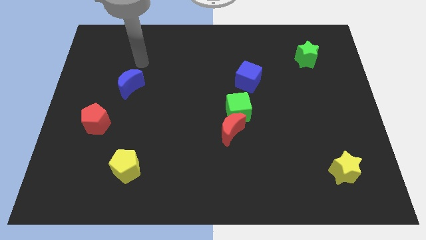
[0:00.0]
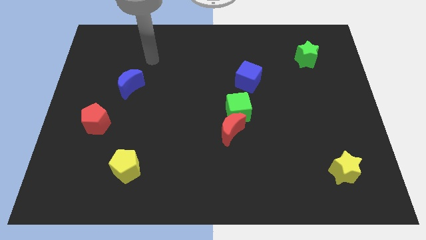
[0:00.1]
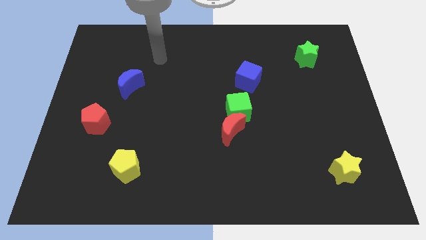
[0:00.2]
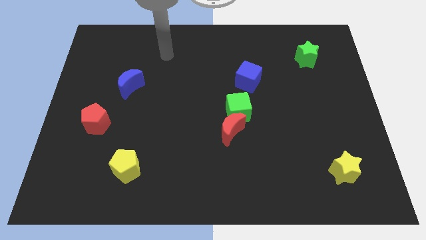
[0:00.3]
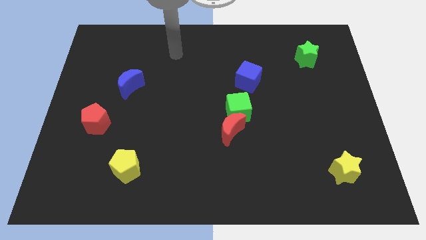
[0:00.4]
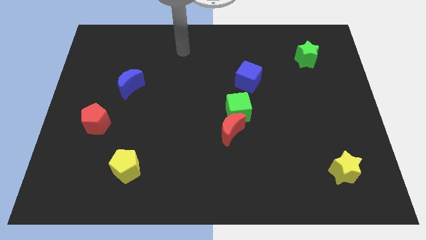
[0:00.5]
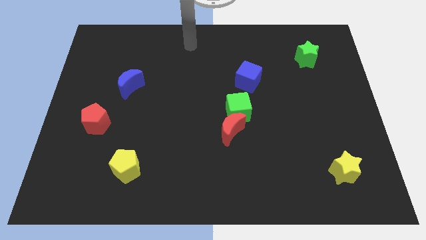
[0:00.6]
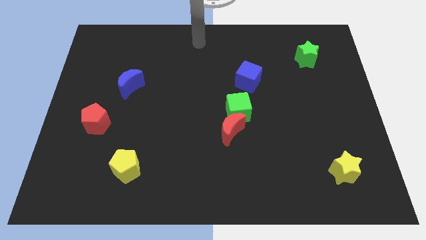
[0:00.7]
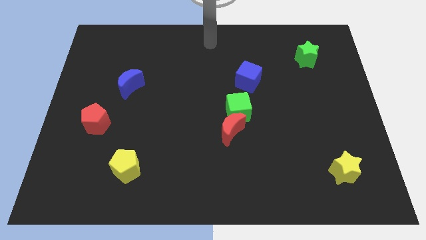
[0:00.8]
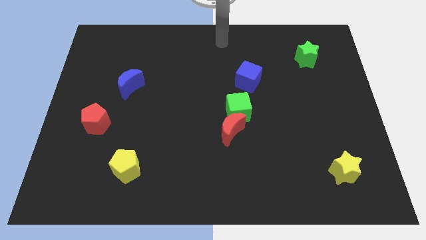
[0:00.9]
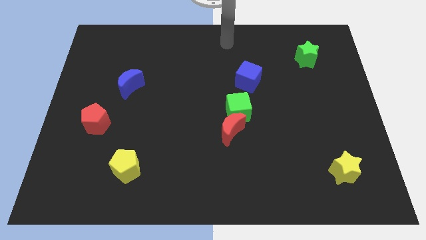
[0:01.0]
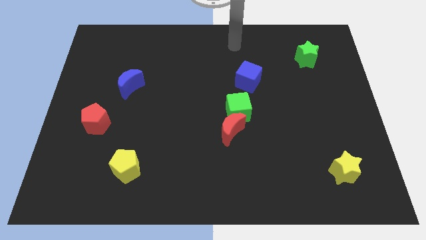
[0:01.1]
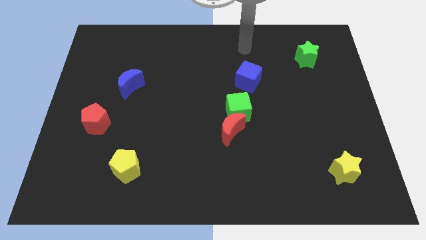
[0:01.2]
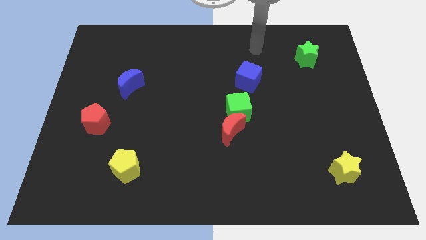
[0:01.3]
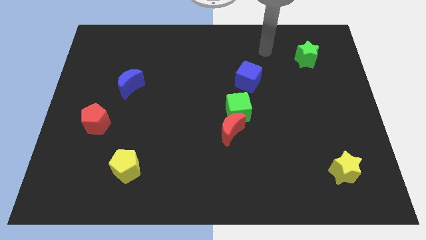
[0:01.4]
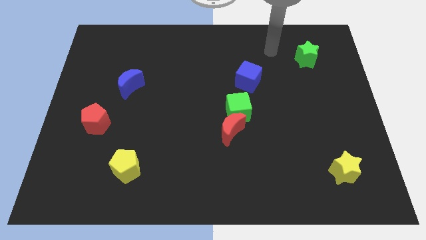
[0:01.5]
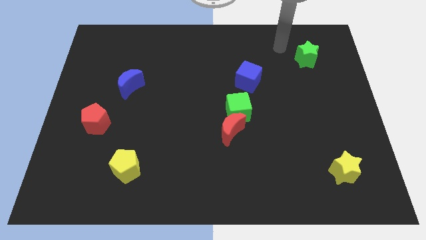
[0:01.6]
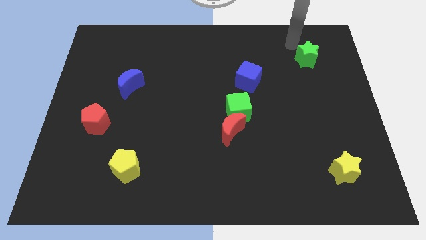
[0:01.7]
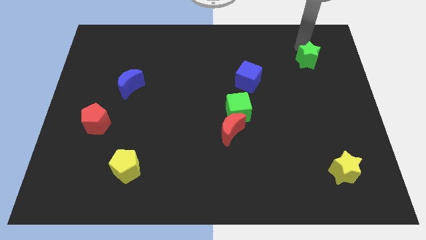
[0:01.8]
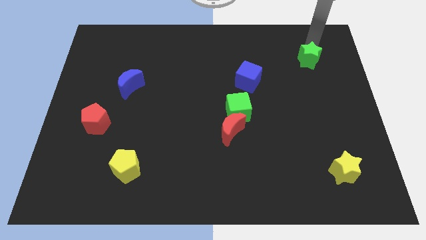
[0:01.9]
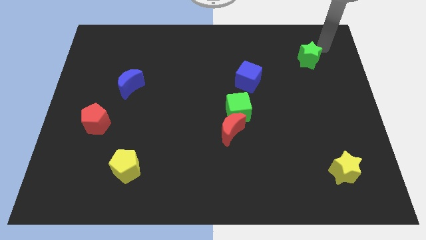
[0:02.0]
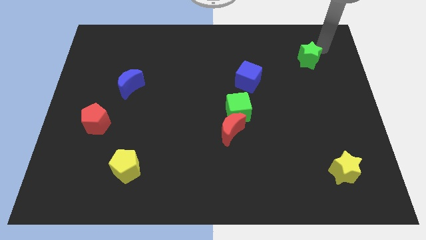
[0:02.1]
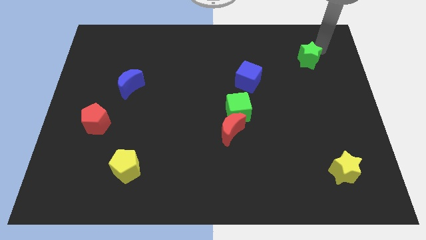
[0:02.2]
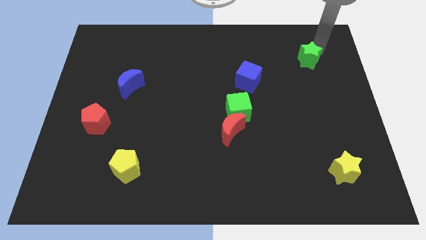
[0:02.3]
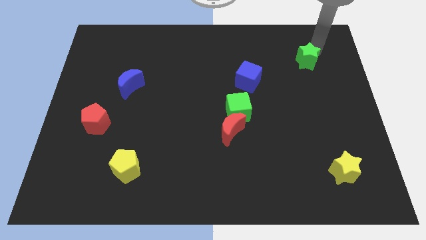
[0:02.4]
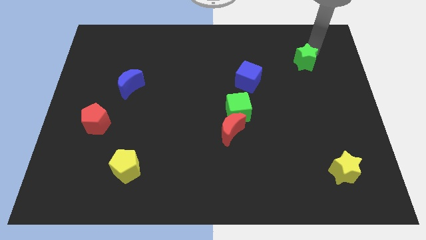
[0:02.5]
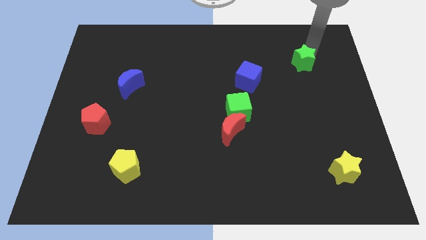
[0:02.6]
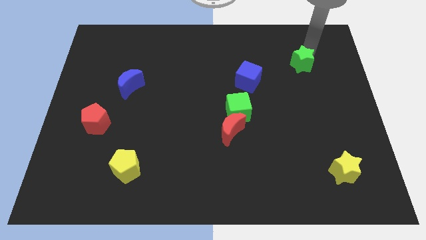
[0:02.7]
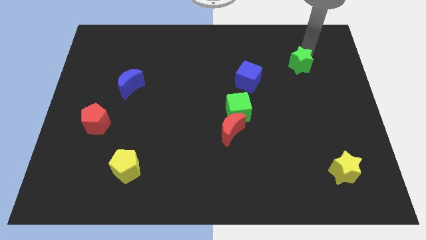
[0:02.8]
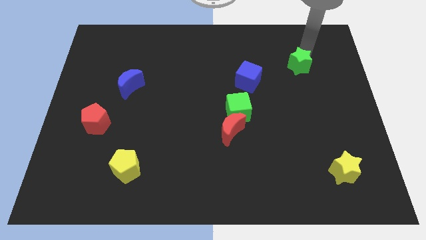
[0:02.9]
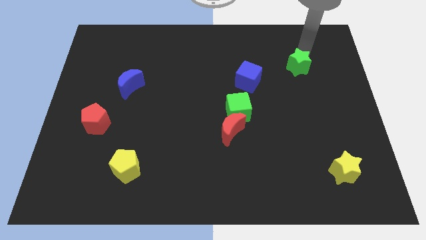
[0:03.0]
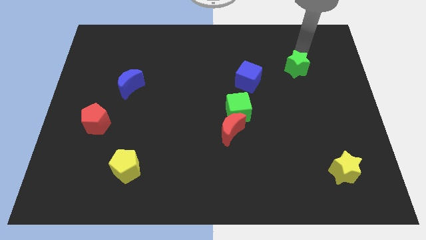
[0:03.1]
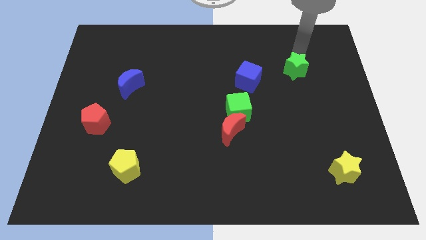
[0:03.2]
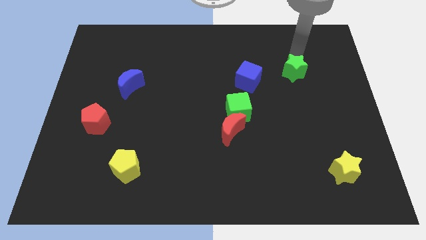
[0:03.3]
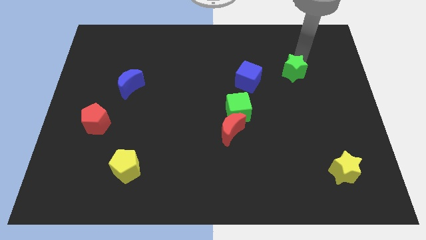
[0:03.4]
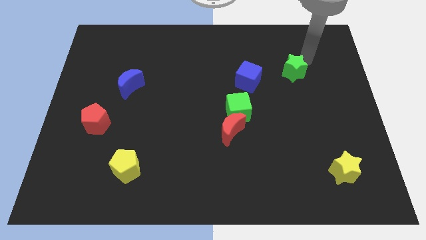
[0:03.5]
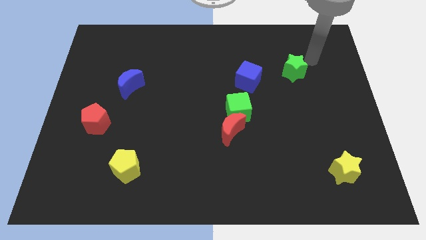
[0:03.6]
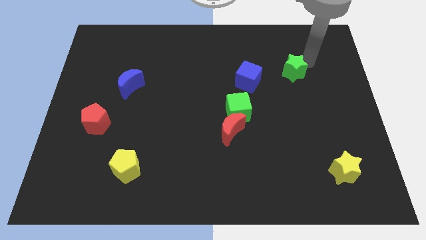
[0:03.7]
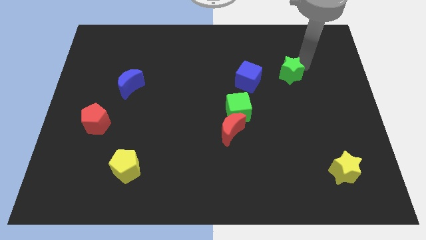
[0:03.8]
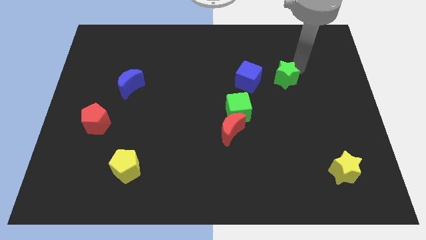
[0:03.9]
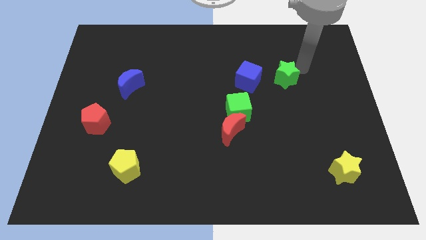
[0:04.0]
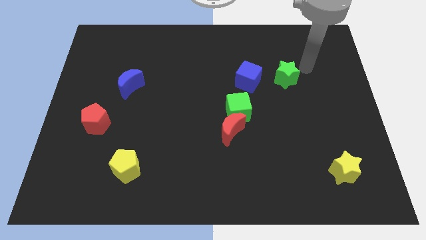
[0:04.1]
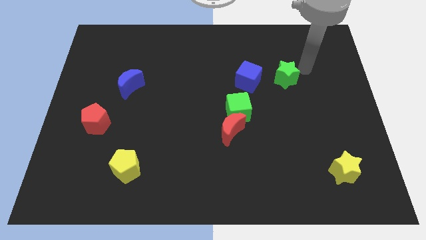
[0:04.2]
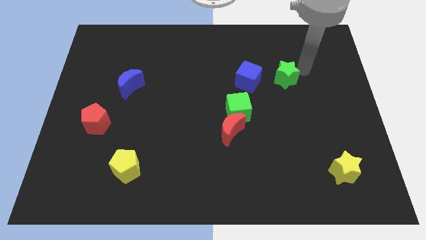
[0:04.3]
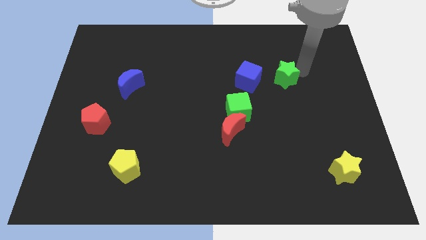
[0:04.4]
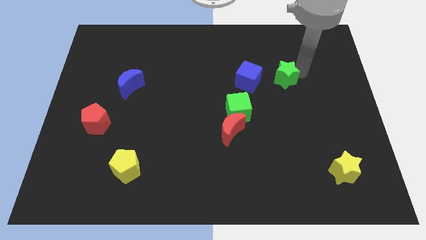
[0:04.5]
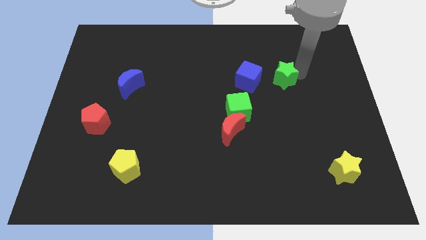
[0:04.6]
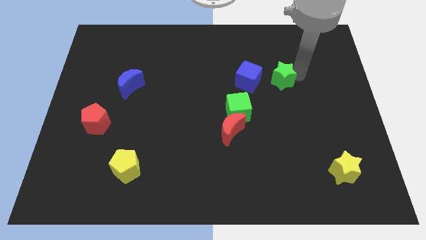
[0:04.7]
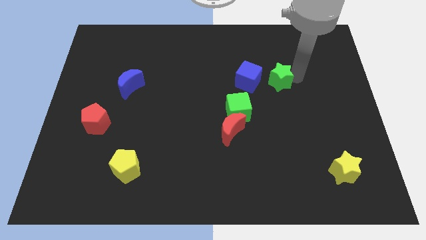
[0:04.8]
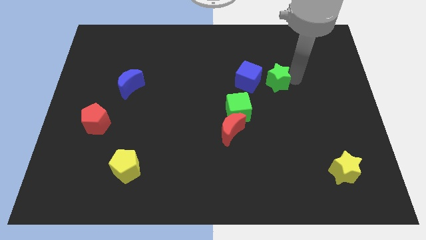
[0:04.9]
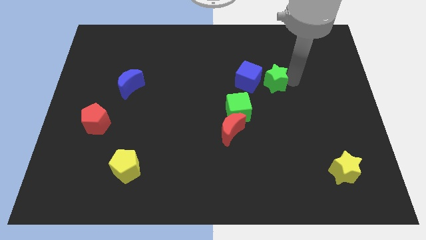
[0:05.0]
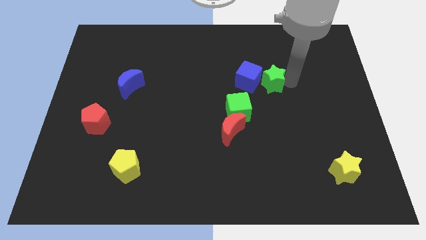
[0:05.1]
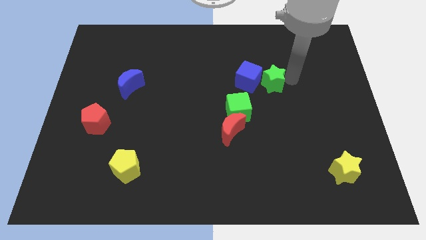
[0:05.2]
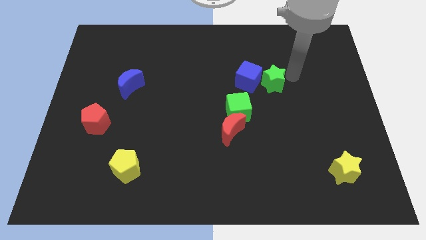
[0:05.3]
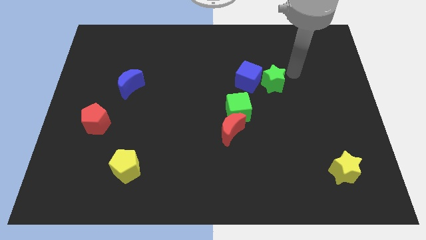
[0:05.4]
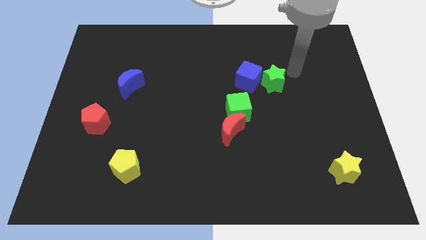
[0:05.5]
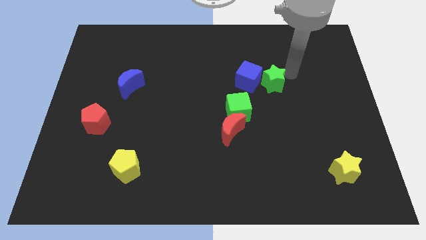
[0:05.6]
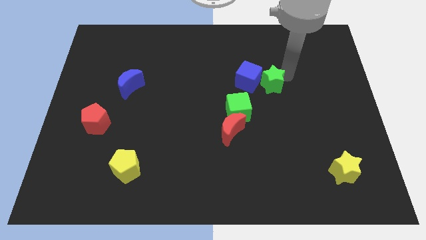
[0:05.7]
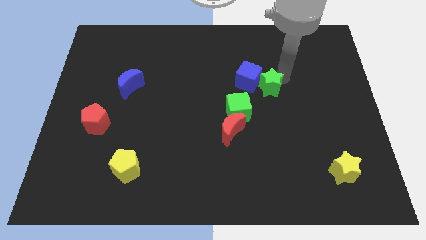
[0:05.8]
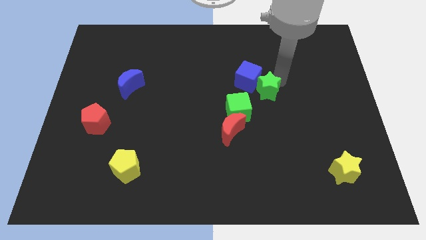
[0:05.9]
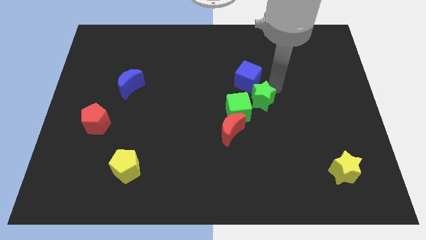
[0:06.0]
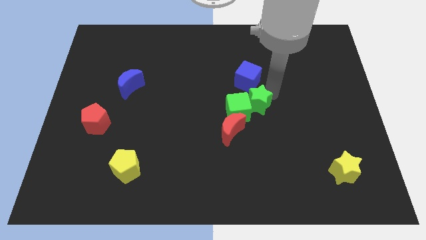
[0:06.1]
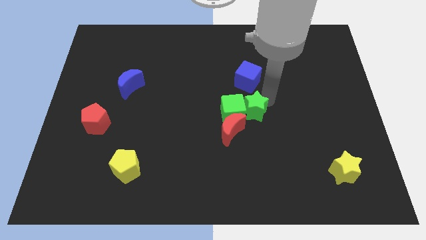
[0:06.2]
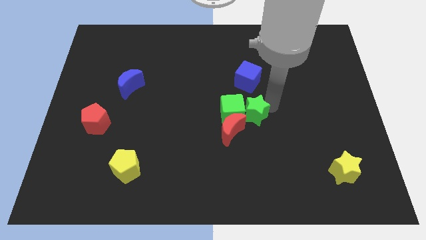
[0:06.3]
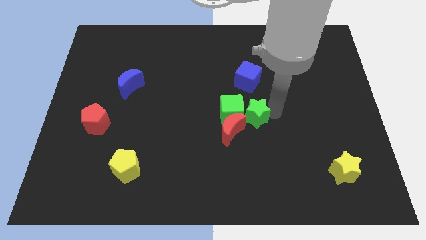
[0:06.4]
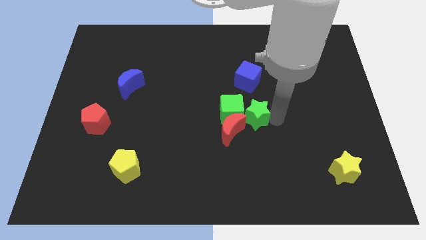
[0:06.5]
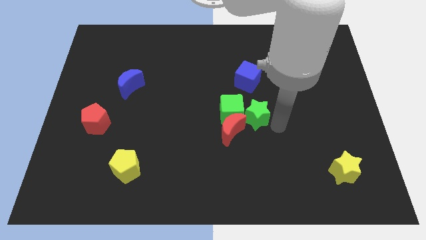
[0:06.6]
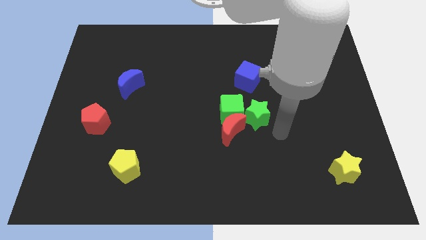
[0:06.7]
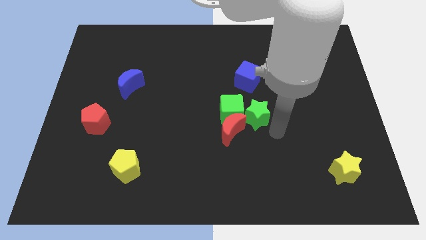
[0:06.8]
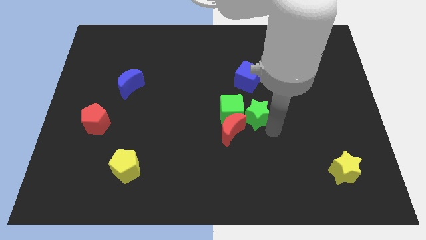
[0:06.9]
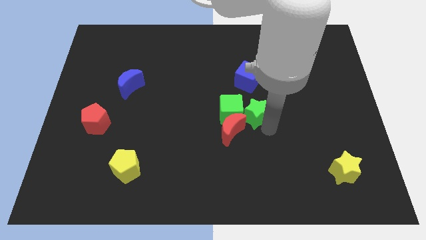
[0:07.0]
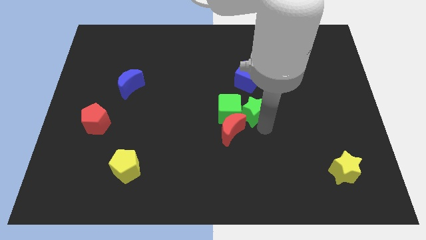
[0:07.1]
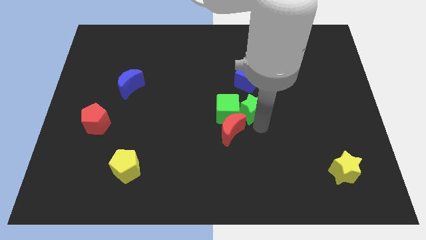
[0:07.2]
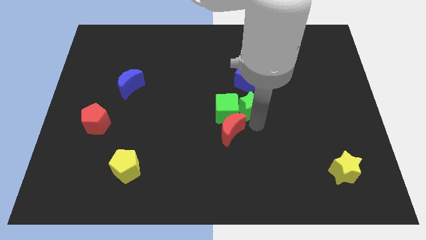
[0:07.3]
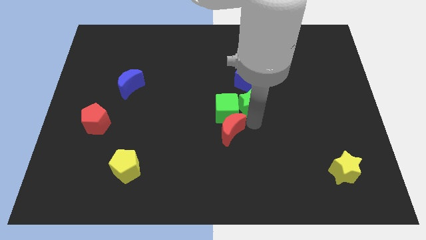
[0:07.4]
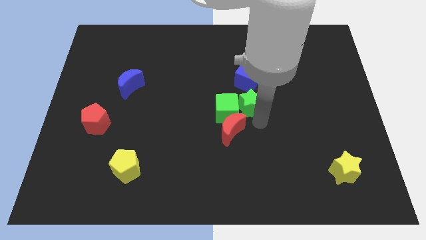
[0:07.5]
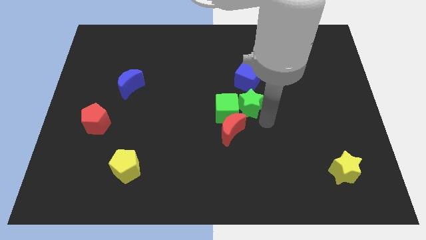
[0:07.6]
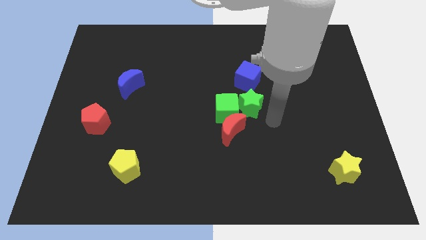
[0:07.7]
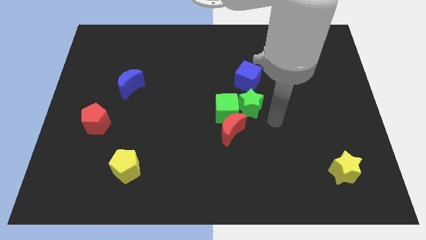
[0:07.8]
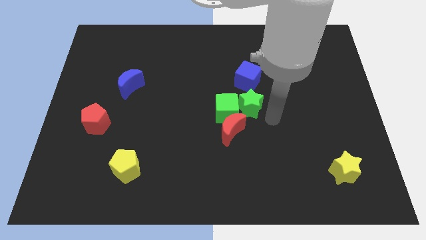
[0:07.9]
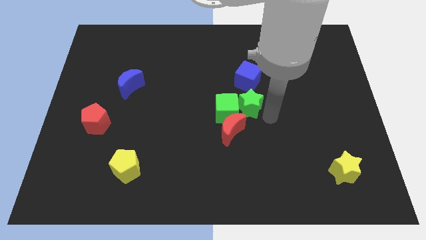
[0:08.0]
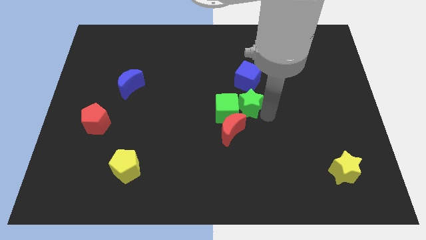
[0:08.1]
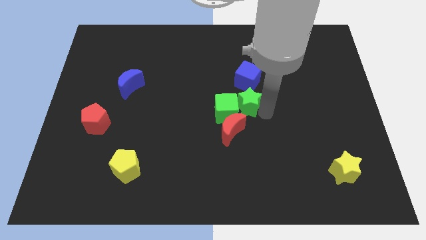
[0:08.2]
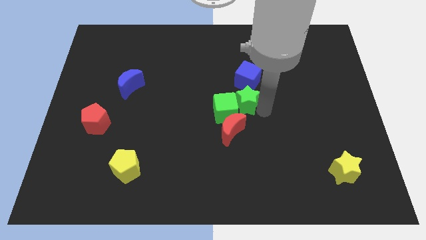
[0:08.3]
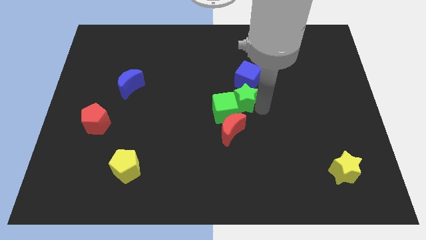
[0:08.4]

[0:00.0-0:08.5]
put the green star to the bottom left of the blue cube
